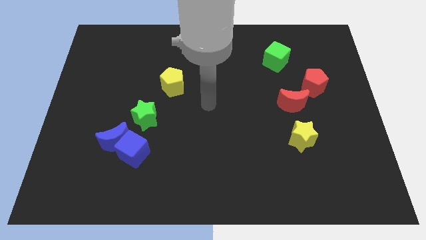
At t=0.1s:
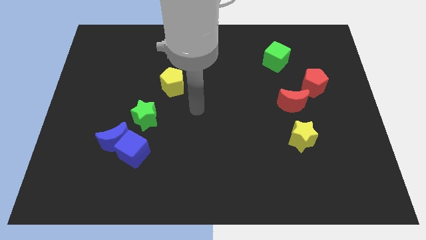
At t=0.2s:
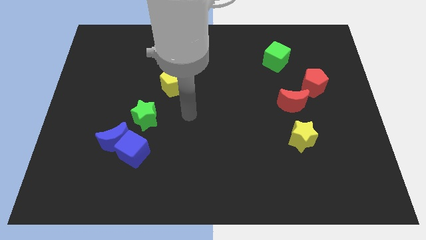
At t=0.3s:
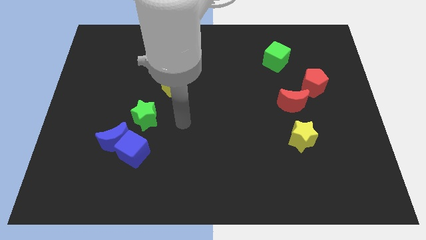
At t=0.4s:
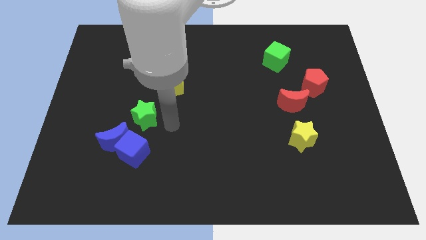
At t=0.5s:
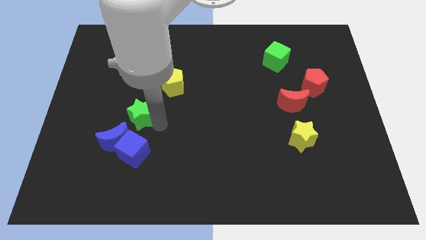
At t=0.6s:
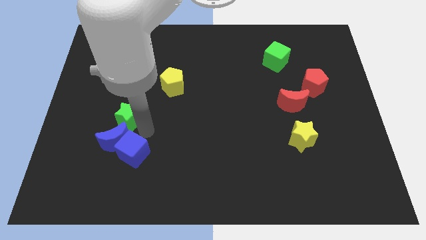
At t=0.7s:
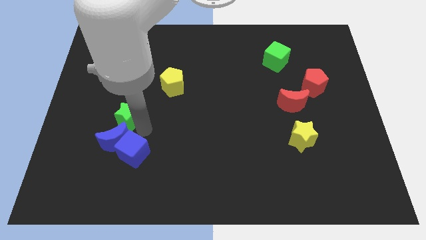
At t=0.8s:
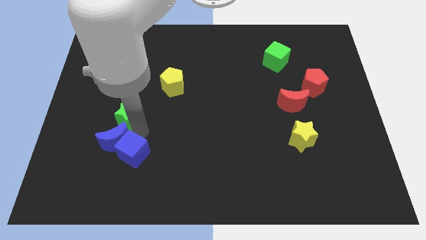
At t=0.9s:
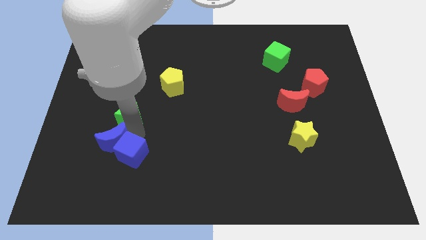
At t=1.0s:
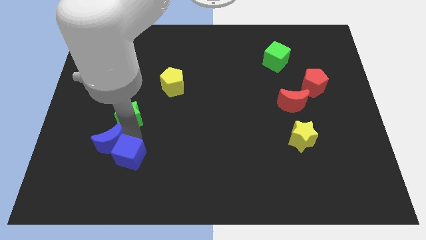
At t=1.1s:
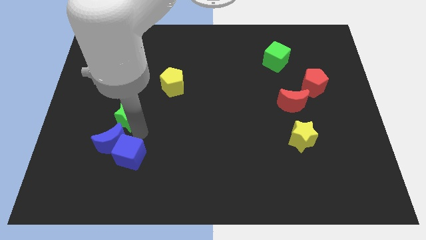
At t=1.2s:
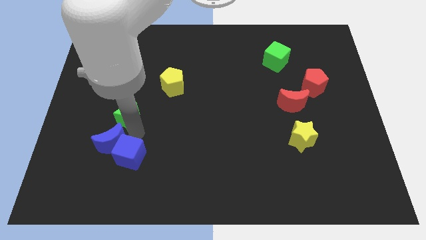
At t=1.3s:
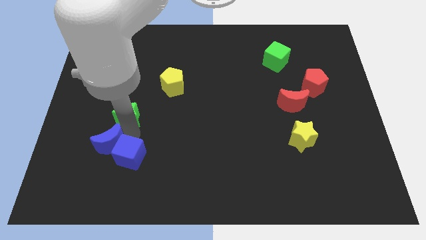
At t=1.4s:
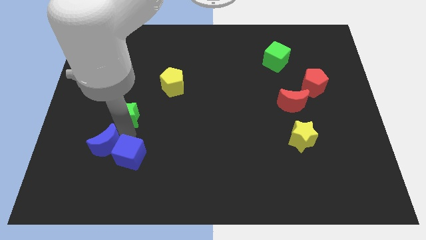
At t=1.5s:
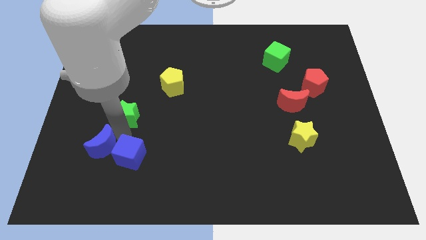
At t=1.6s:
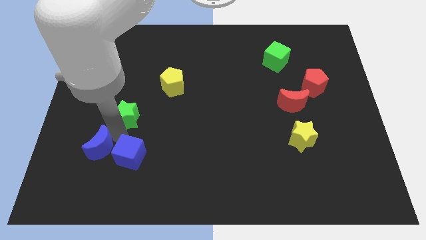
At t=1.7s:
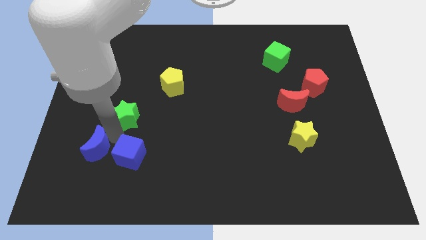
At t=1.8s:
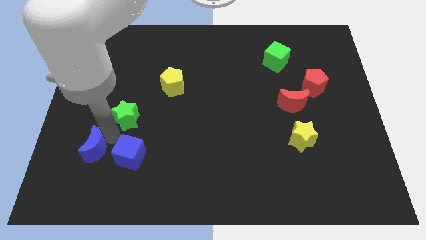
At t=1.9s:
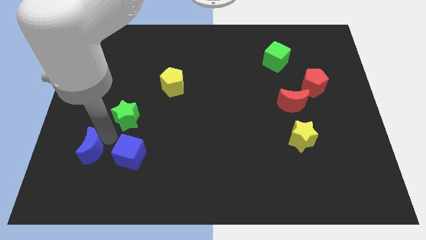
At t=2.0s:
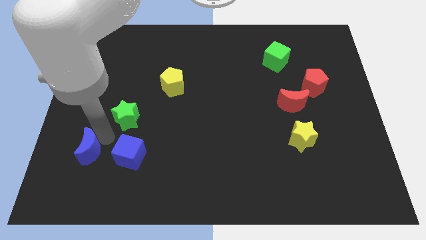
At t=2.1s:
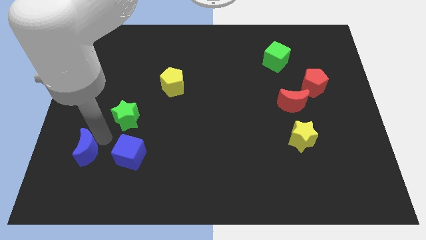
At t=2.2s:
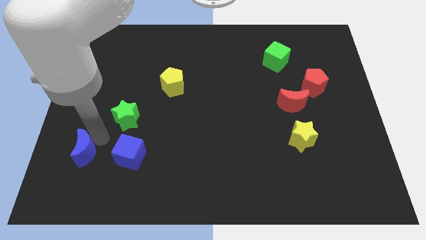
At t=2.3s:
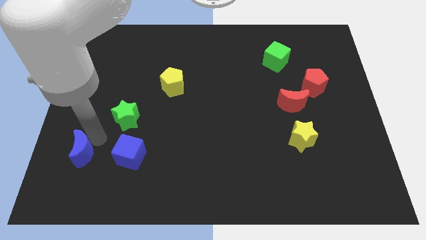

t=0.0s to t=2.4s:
pull the blue moon apart from the blue cube and green star

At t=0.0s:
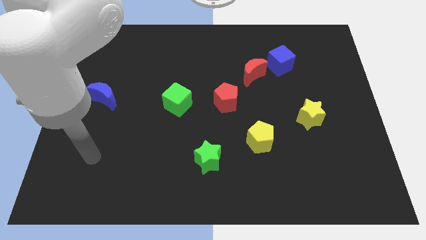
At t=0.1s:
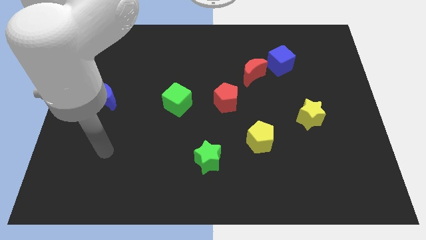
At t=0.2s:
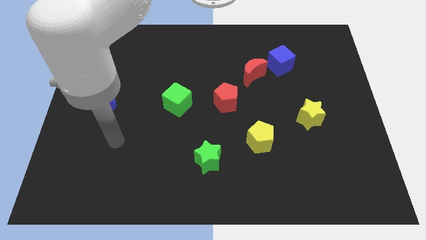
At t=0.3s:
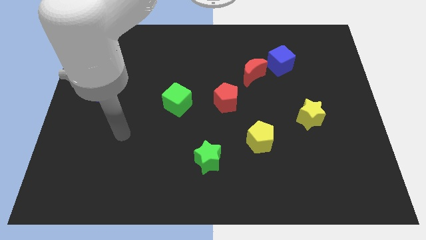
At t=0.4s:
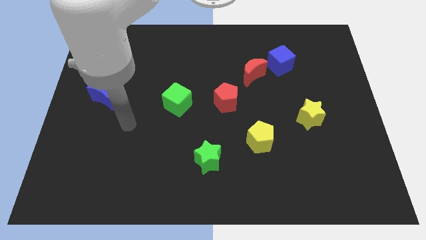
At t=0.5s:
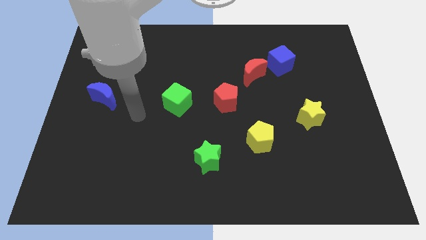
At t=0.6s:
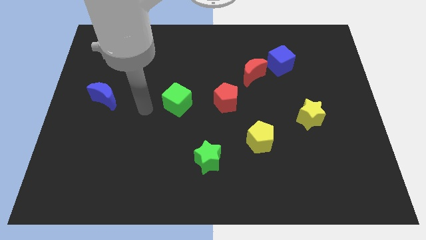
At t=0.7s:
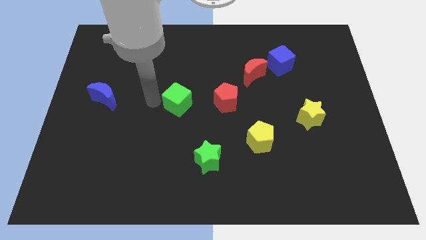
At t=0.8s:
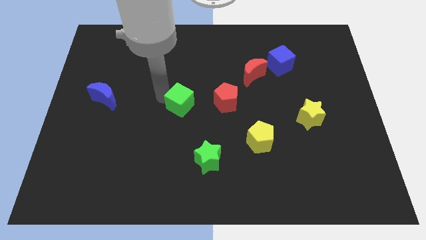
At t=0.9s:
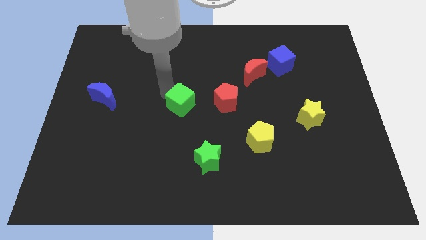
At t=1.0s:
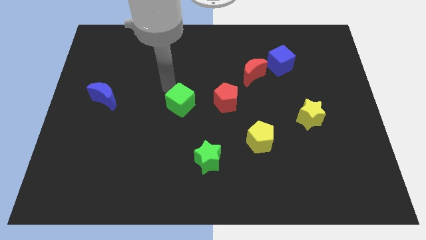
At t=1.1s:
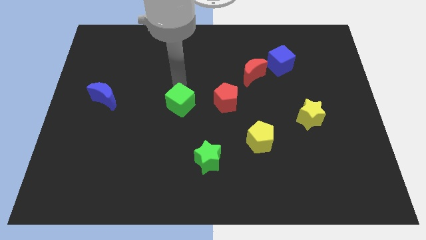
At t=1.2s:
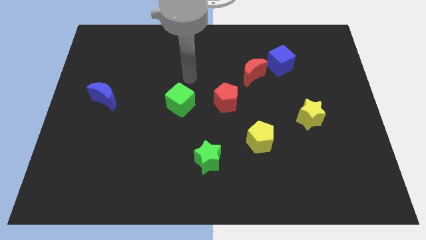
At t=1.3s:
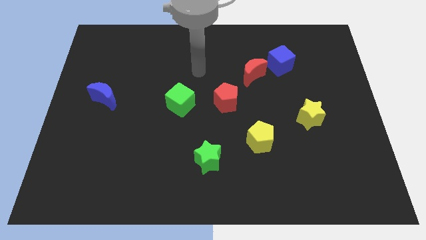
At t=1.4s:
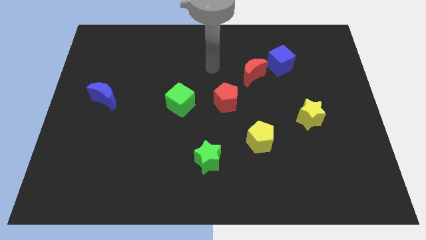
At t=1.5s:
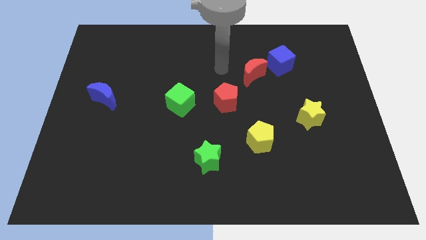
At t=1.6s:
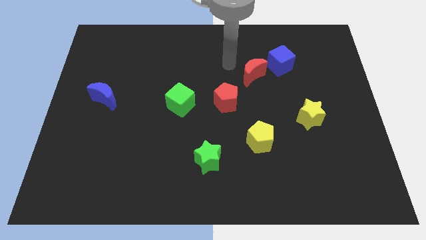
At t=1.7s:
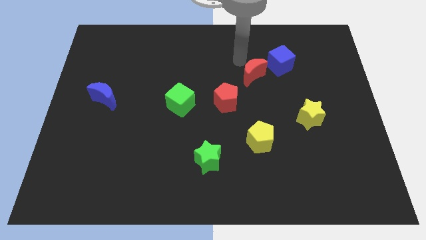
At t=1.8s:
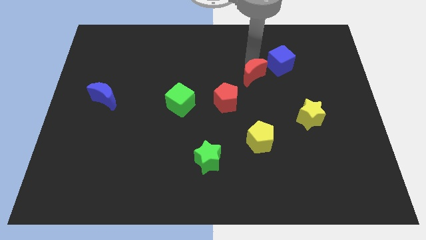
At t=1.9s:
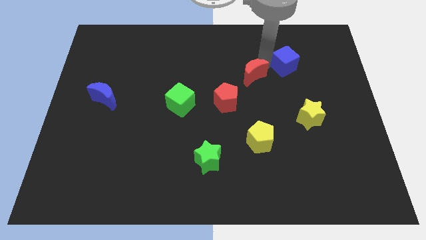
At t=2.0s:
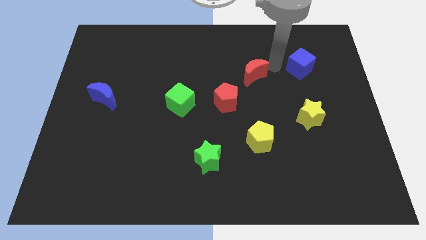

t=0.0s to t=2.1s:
pull the red moon apart from the blue cube

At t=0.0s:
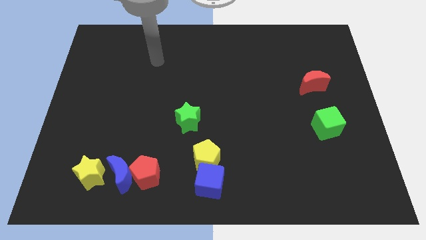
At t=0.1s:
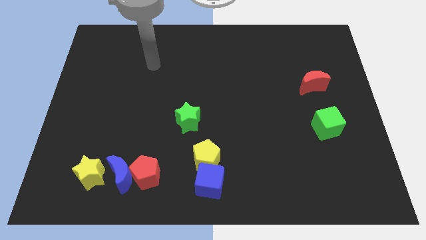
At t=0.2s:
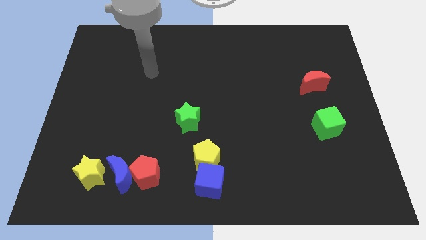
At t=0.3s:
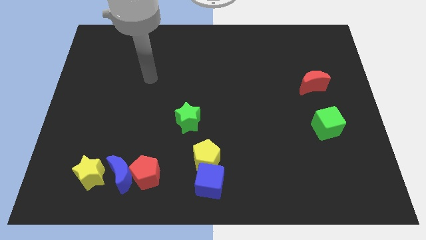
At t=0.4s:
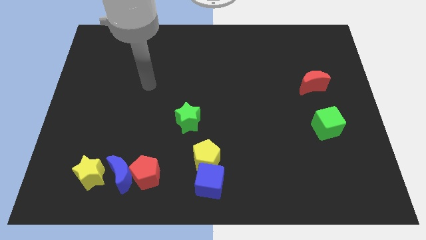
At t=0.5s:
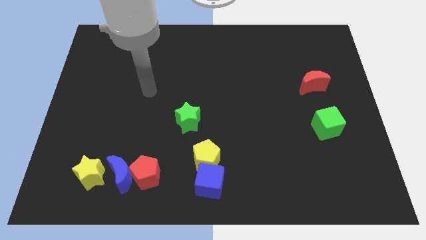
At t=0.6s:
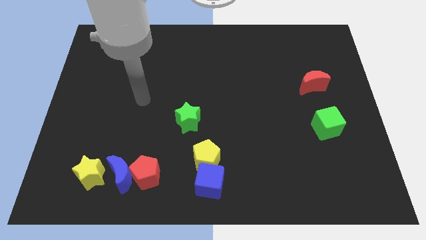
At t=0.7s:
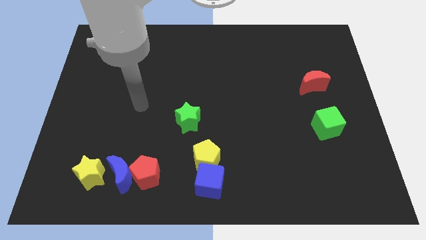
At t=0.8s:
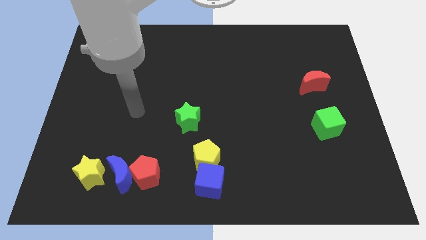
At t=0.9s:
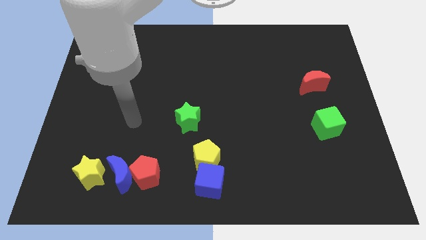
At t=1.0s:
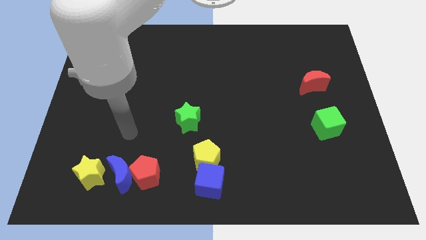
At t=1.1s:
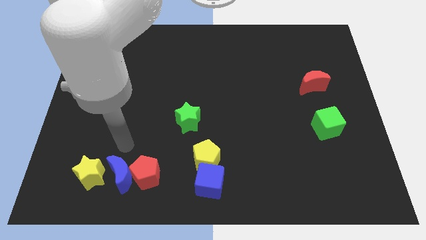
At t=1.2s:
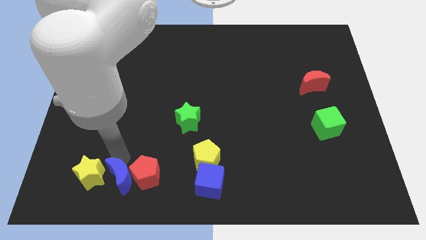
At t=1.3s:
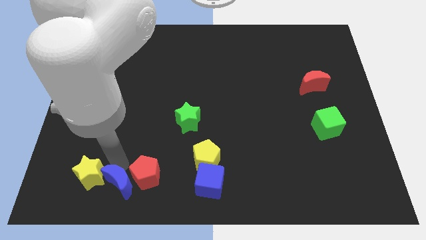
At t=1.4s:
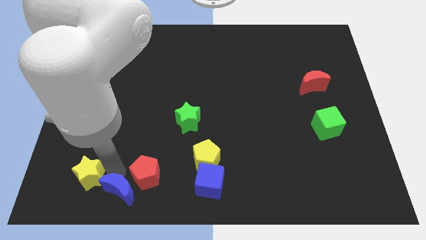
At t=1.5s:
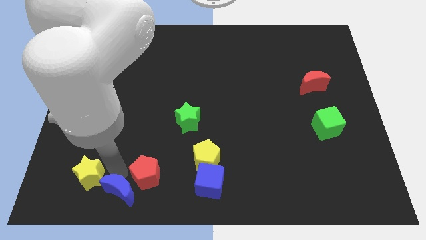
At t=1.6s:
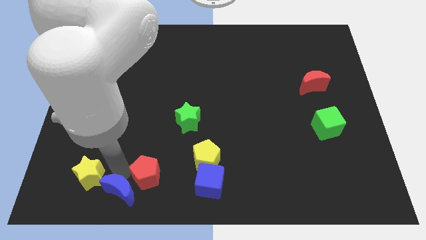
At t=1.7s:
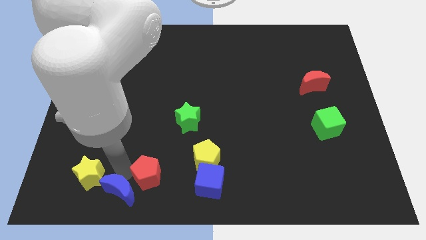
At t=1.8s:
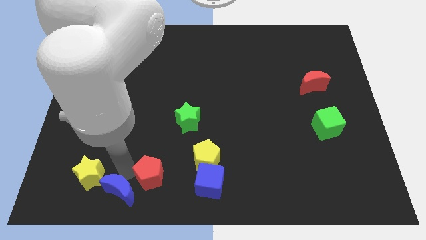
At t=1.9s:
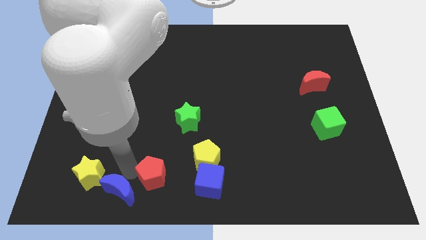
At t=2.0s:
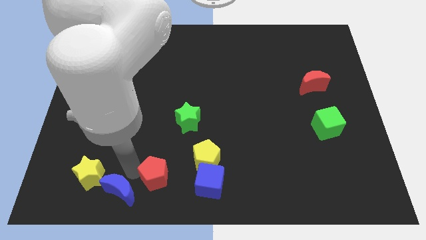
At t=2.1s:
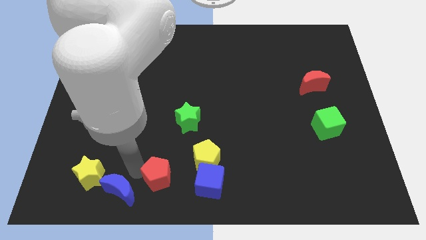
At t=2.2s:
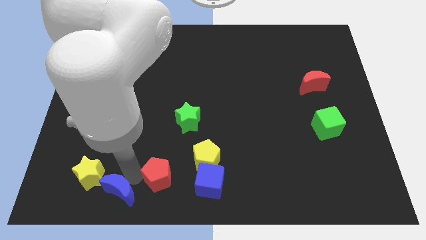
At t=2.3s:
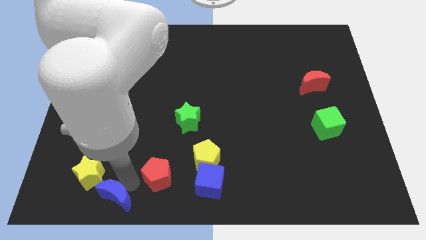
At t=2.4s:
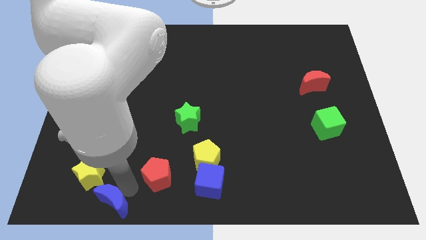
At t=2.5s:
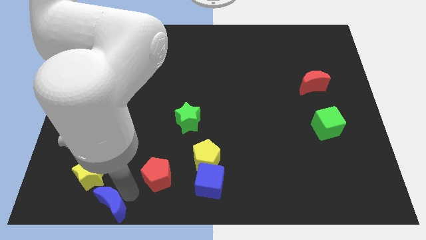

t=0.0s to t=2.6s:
pull the red pentagon apart from the blue moon

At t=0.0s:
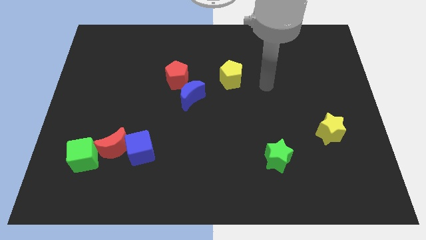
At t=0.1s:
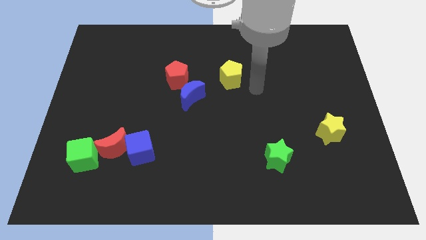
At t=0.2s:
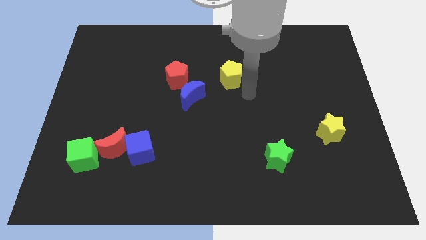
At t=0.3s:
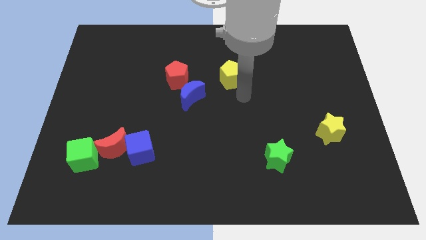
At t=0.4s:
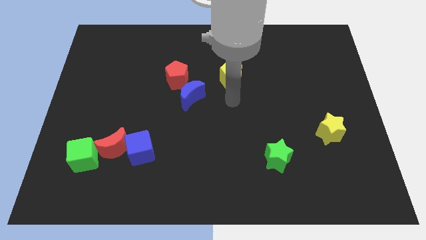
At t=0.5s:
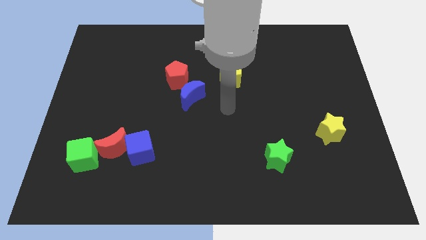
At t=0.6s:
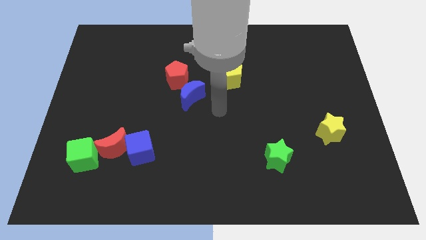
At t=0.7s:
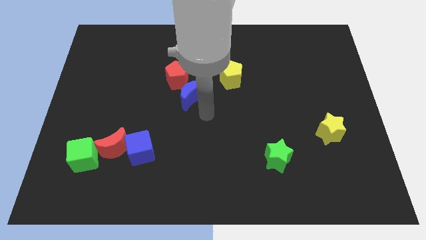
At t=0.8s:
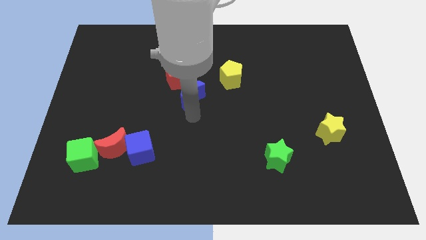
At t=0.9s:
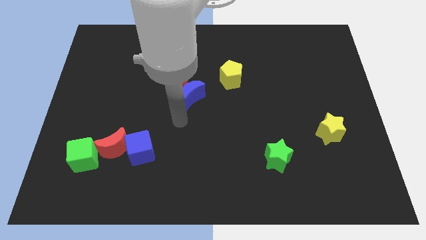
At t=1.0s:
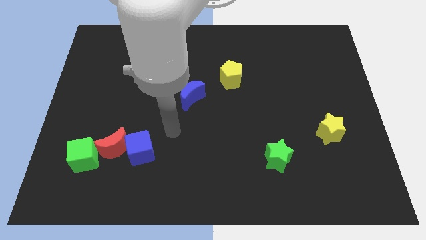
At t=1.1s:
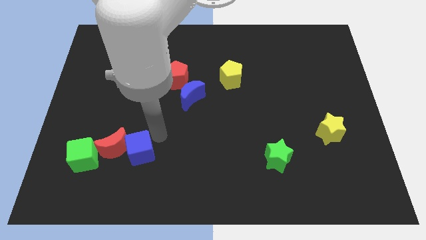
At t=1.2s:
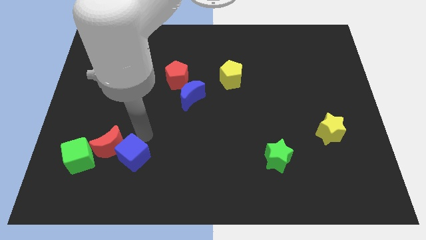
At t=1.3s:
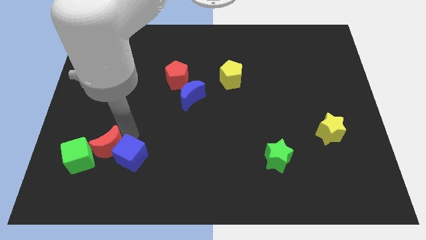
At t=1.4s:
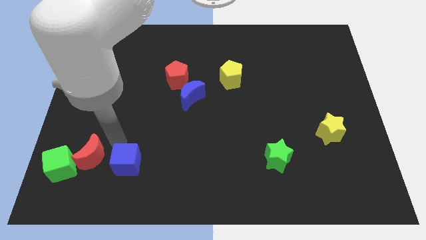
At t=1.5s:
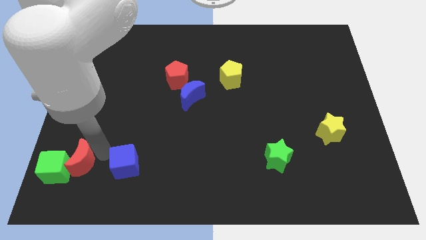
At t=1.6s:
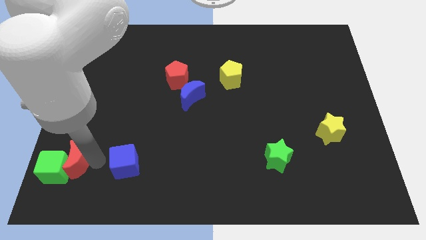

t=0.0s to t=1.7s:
move the blue cube away from the red moon

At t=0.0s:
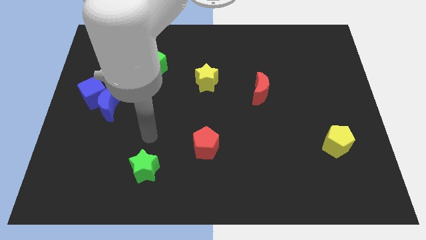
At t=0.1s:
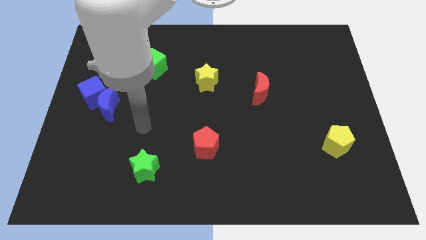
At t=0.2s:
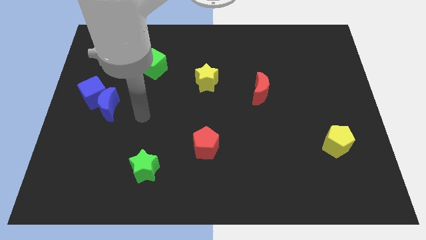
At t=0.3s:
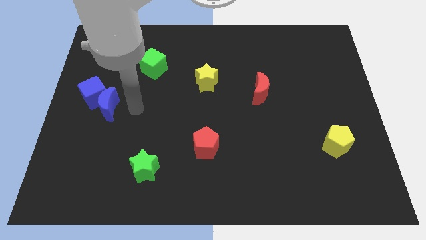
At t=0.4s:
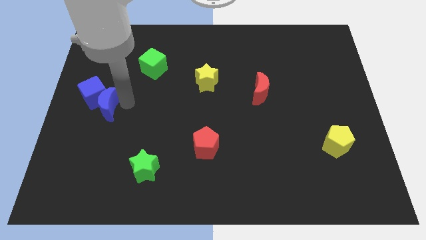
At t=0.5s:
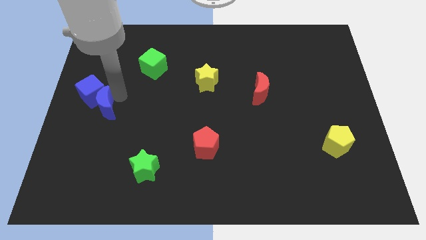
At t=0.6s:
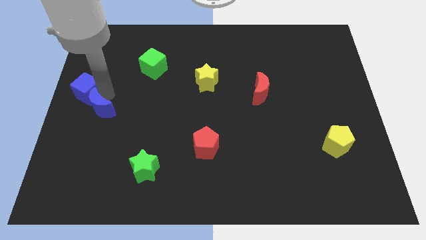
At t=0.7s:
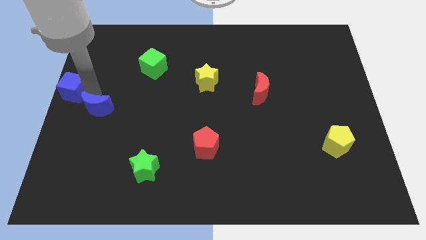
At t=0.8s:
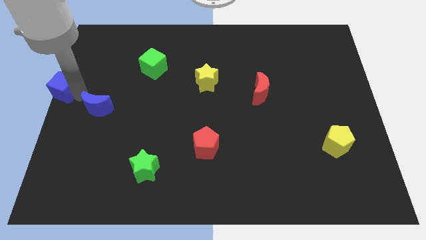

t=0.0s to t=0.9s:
separate the blue moon from the blue cube
